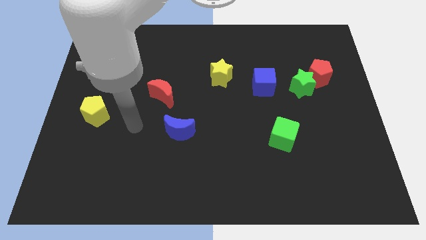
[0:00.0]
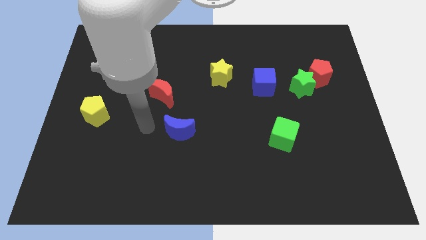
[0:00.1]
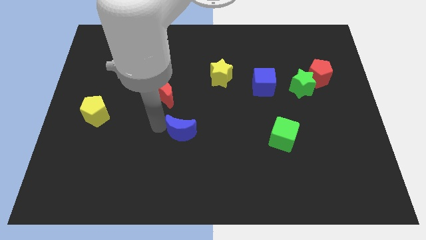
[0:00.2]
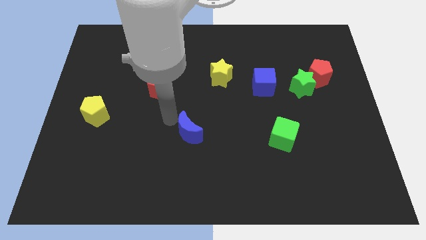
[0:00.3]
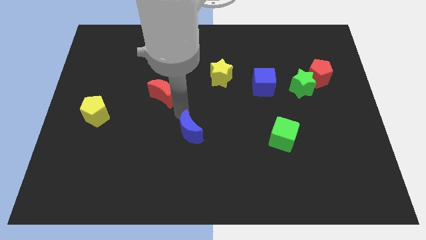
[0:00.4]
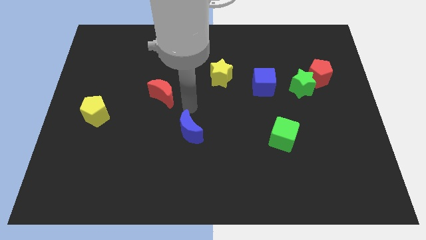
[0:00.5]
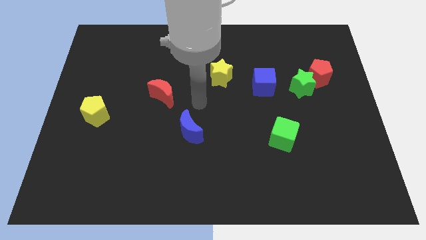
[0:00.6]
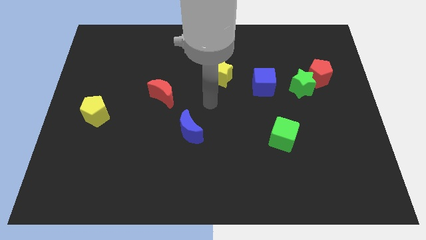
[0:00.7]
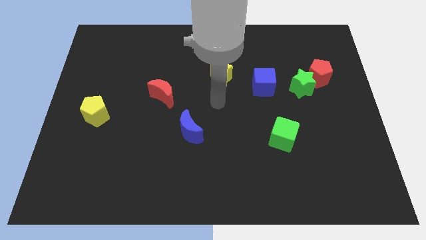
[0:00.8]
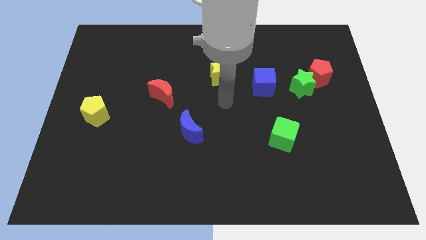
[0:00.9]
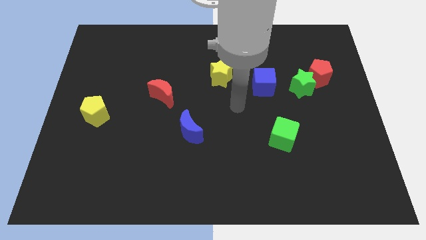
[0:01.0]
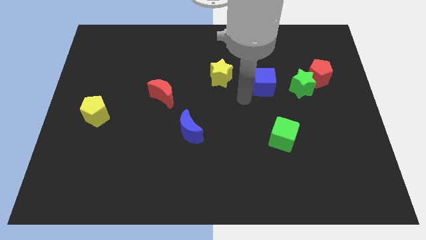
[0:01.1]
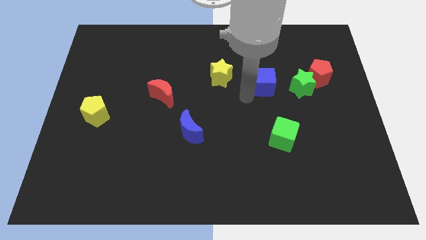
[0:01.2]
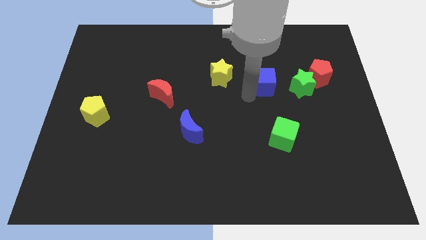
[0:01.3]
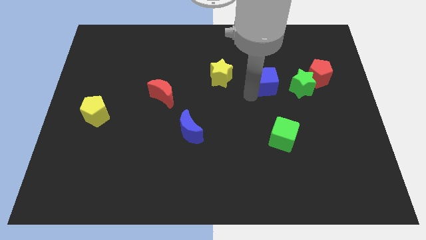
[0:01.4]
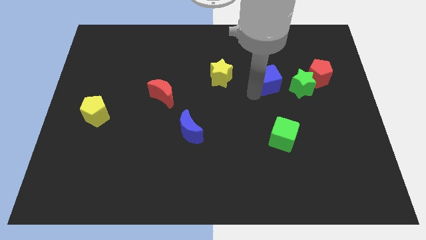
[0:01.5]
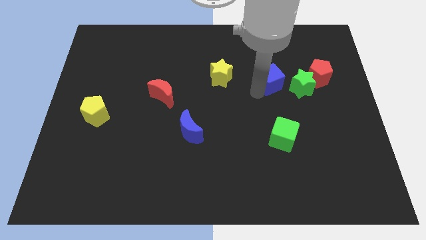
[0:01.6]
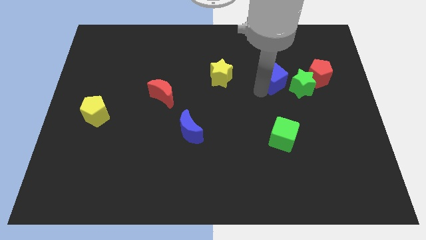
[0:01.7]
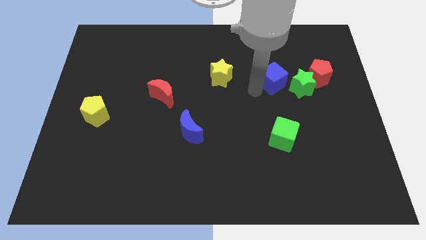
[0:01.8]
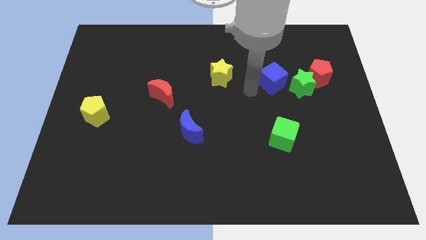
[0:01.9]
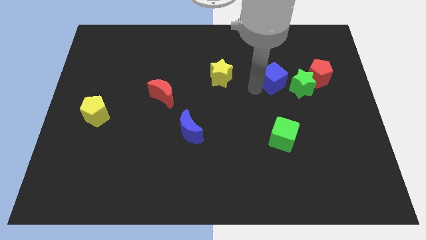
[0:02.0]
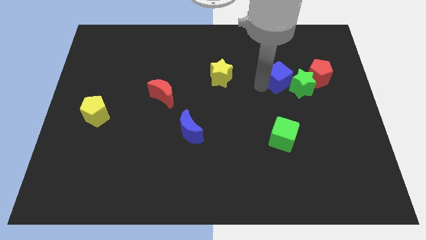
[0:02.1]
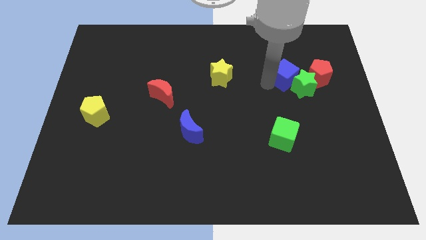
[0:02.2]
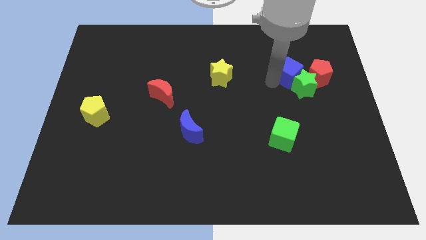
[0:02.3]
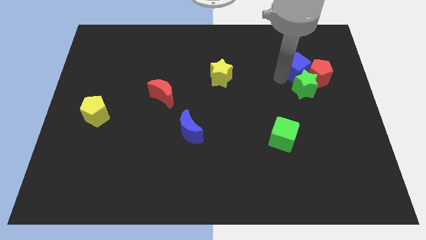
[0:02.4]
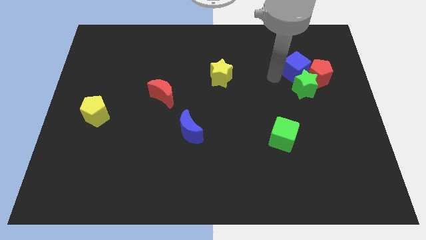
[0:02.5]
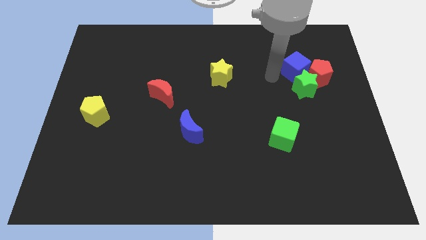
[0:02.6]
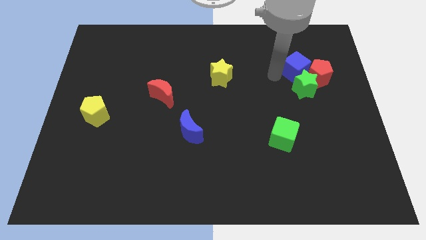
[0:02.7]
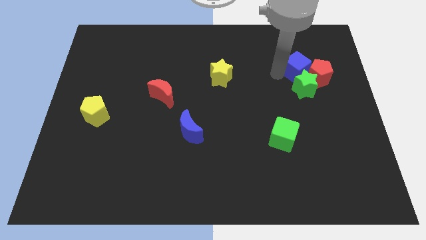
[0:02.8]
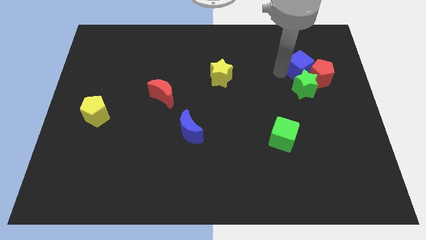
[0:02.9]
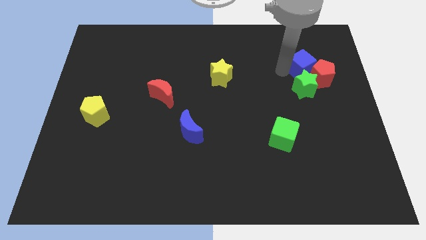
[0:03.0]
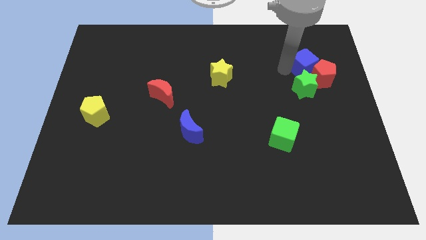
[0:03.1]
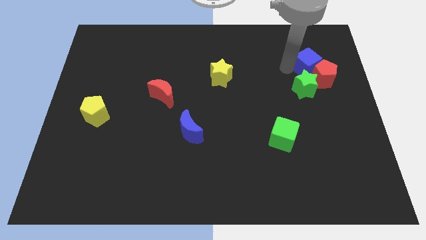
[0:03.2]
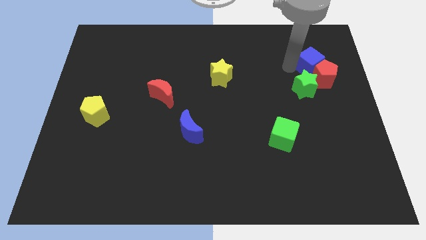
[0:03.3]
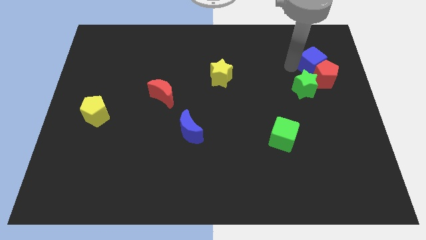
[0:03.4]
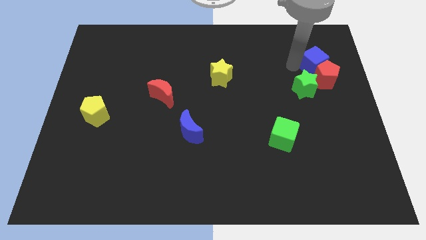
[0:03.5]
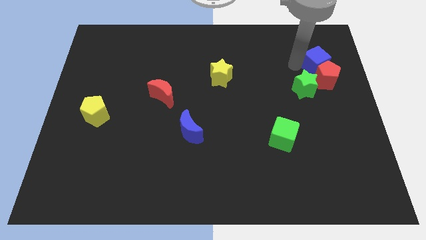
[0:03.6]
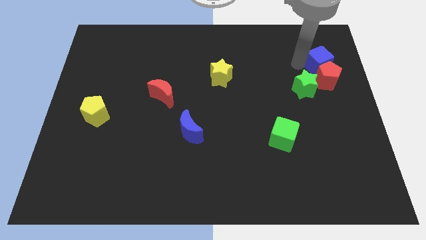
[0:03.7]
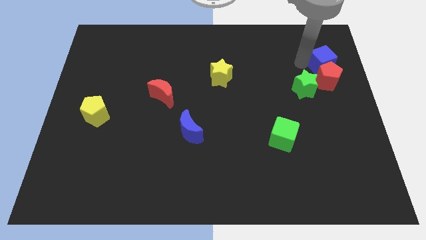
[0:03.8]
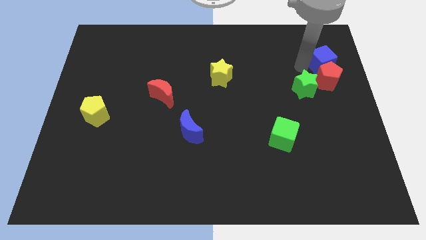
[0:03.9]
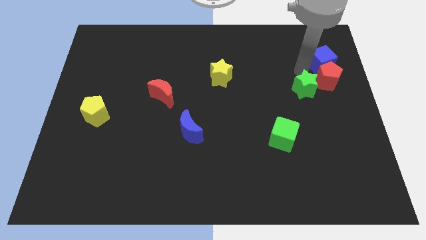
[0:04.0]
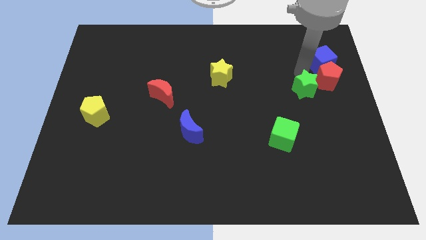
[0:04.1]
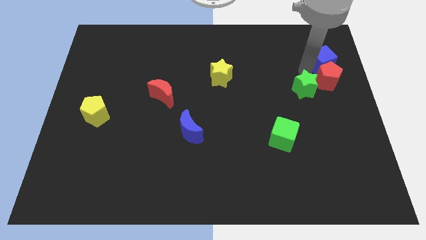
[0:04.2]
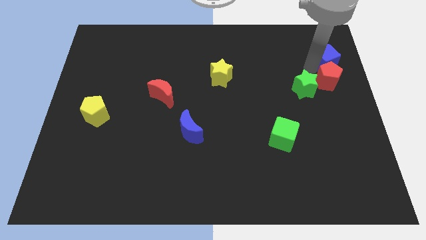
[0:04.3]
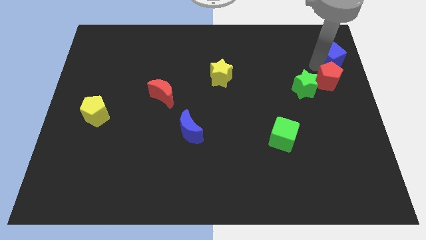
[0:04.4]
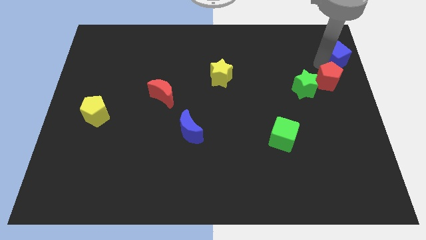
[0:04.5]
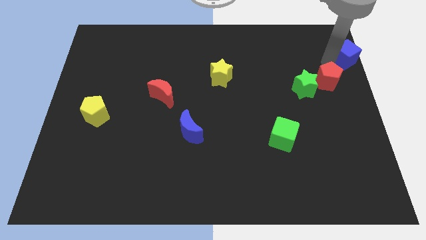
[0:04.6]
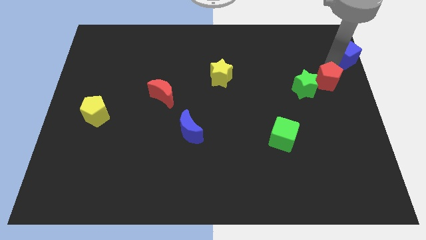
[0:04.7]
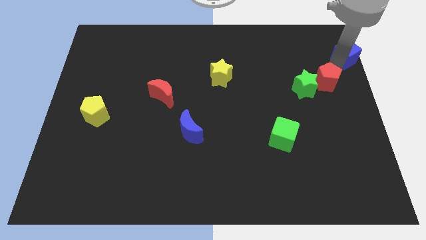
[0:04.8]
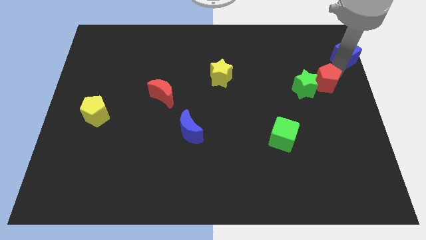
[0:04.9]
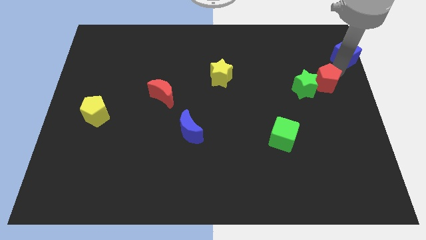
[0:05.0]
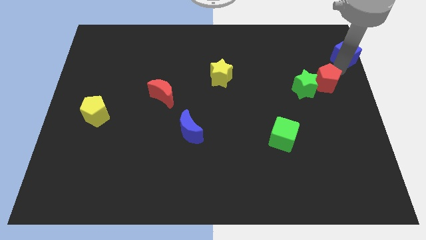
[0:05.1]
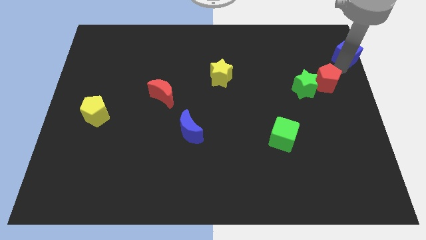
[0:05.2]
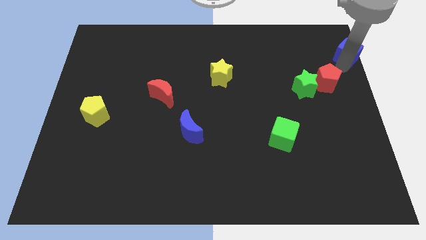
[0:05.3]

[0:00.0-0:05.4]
move the blue cube to the top right of the board
